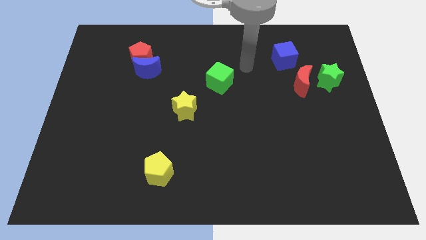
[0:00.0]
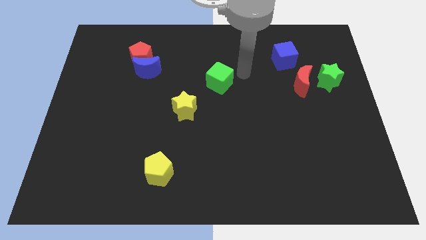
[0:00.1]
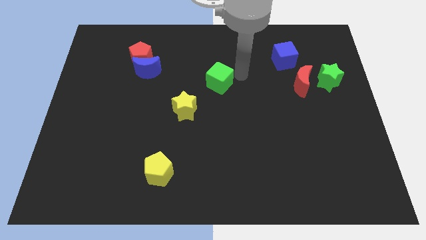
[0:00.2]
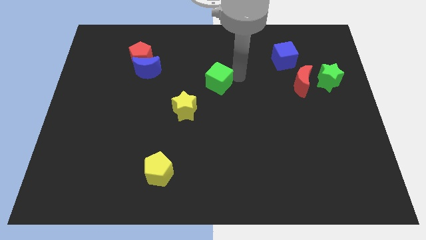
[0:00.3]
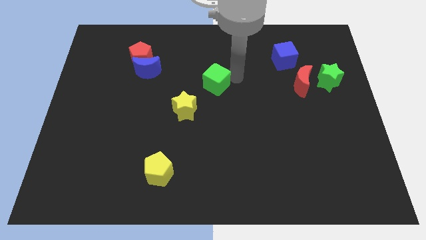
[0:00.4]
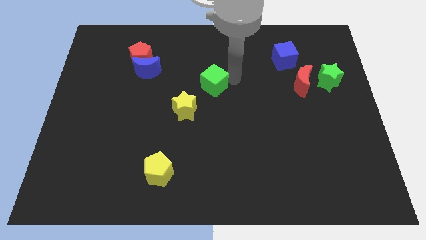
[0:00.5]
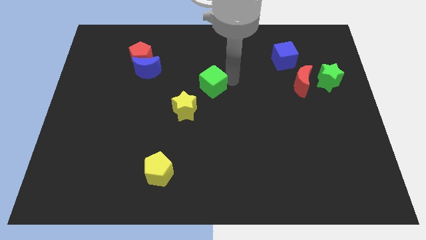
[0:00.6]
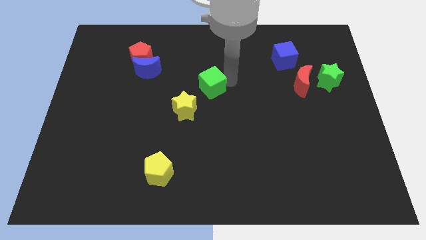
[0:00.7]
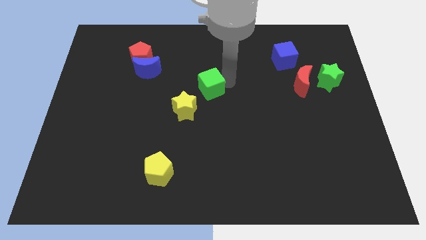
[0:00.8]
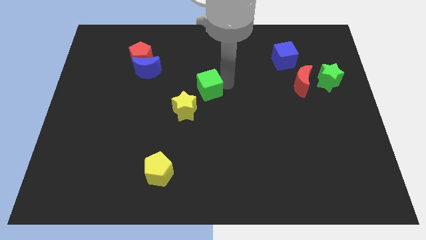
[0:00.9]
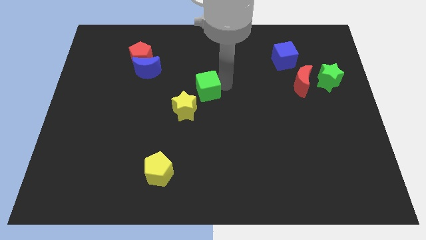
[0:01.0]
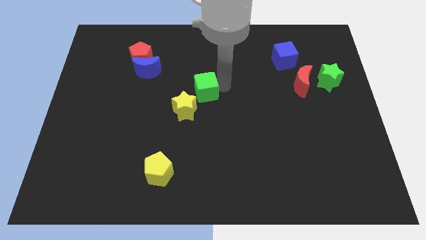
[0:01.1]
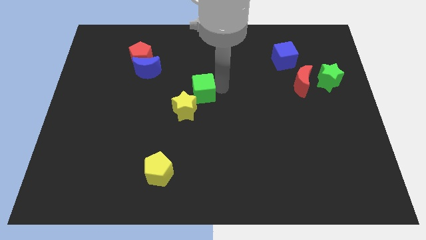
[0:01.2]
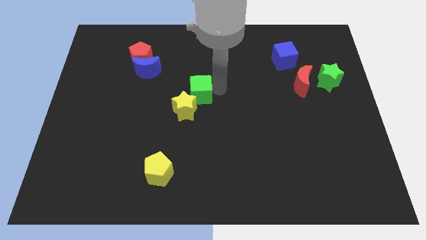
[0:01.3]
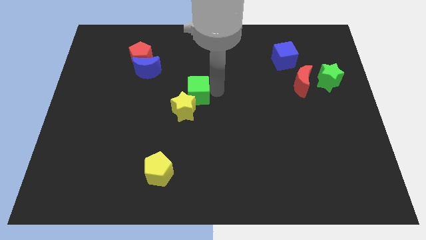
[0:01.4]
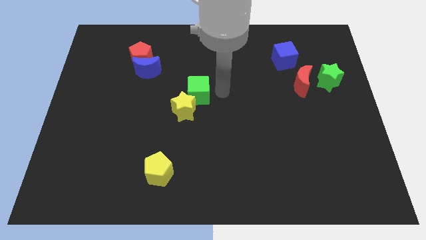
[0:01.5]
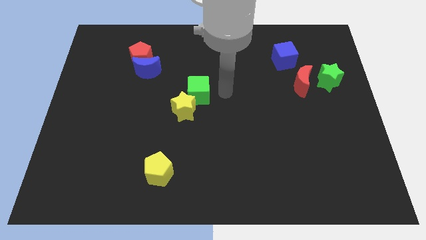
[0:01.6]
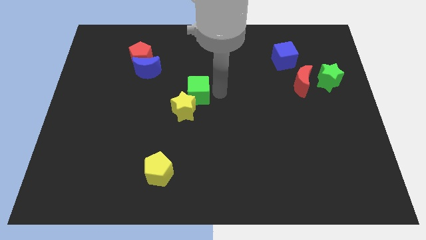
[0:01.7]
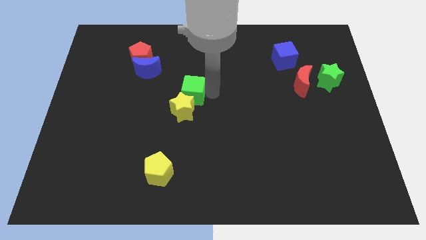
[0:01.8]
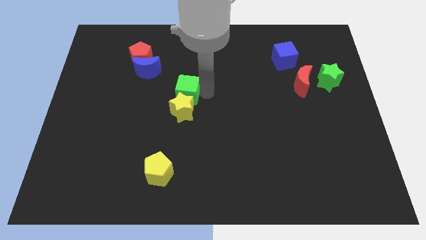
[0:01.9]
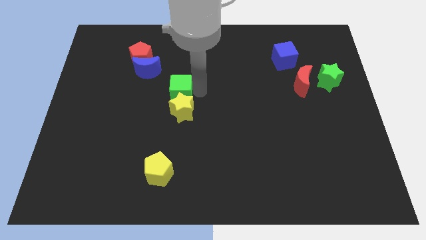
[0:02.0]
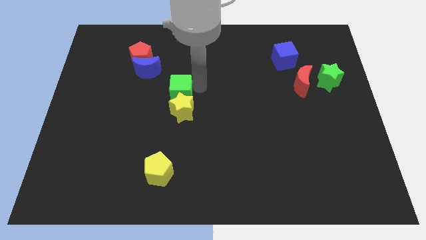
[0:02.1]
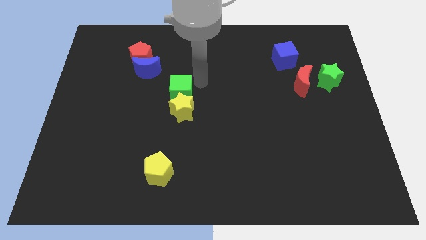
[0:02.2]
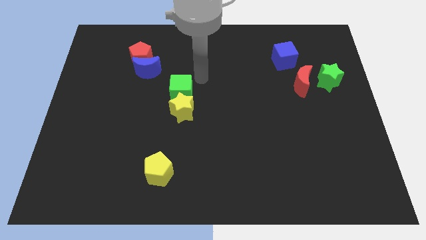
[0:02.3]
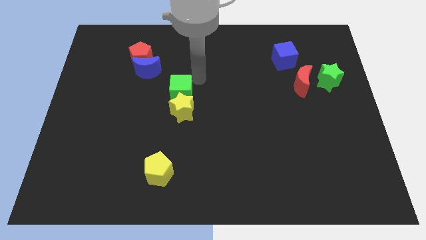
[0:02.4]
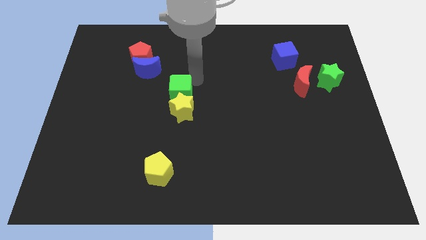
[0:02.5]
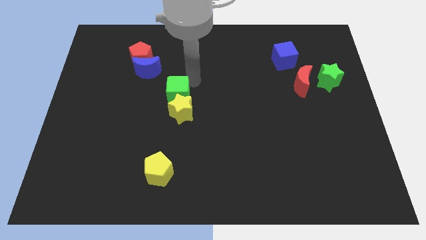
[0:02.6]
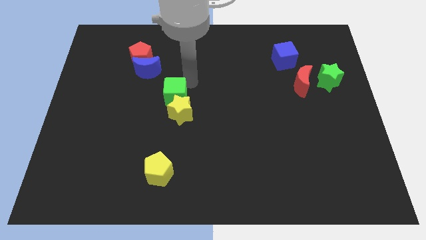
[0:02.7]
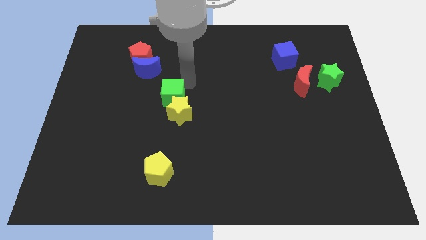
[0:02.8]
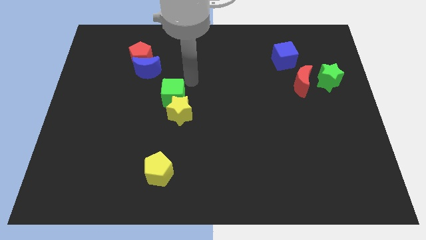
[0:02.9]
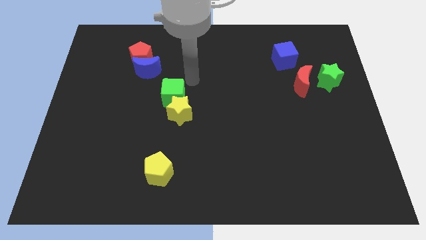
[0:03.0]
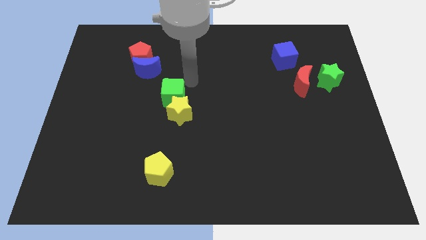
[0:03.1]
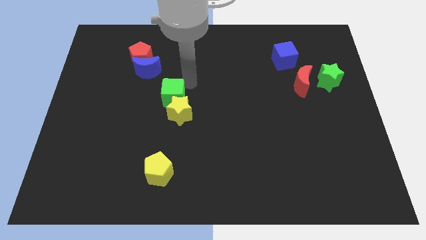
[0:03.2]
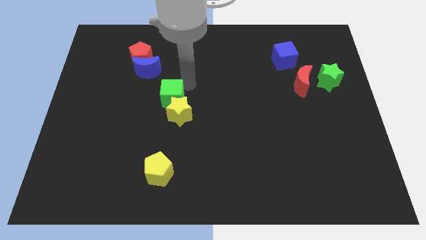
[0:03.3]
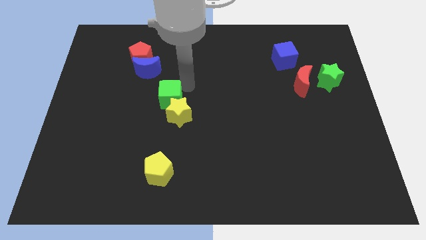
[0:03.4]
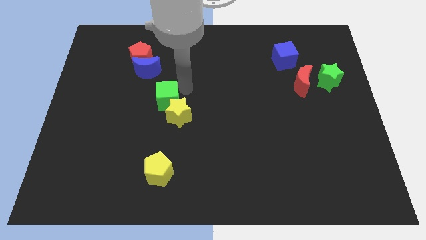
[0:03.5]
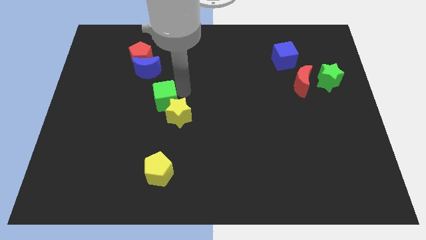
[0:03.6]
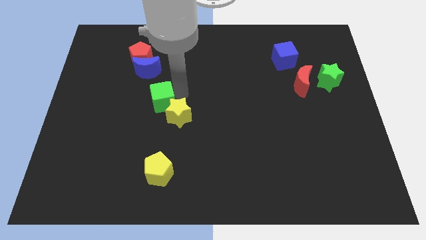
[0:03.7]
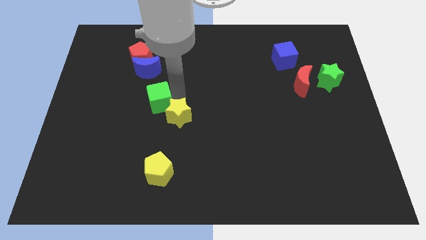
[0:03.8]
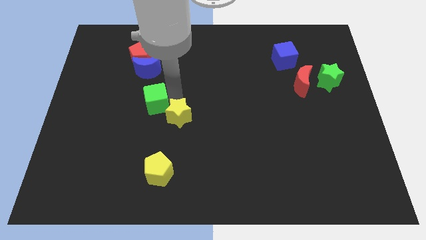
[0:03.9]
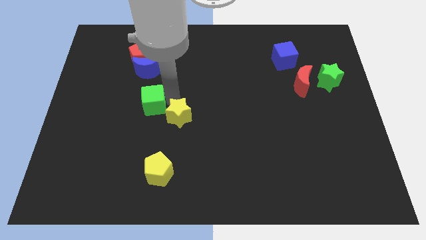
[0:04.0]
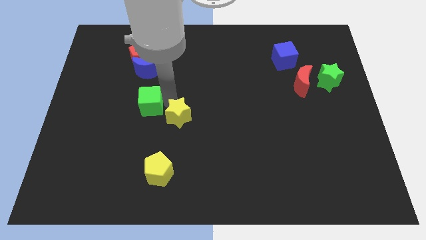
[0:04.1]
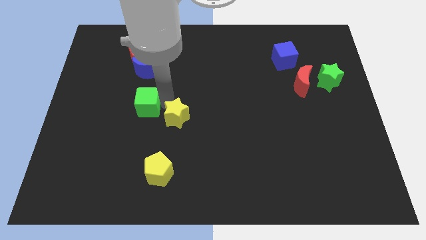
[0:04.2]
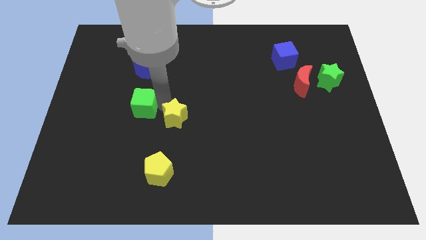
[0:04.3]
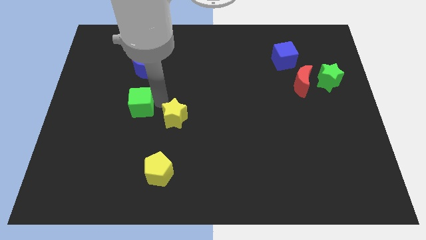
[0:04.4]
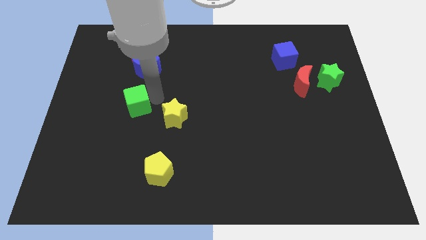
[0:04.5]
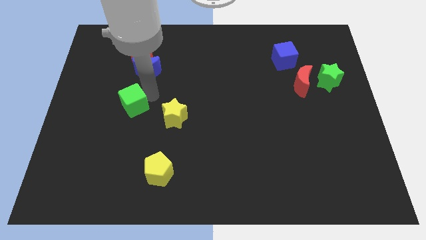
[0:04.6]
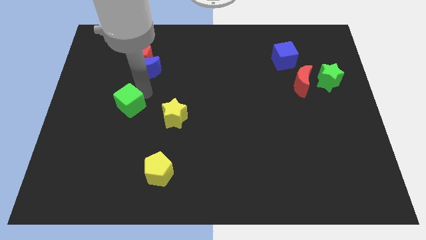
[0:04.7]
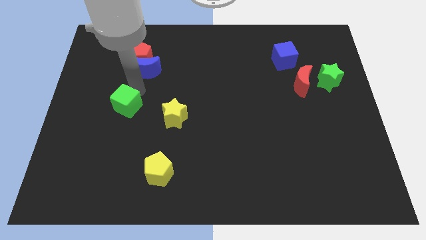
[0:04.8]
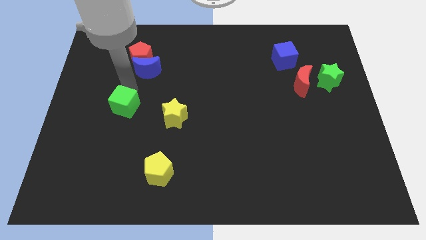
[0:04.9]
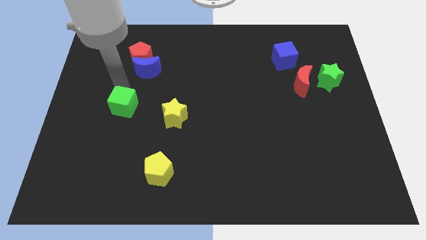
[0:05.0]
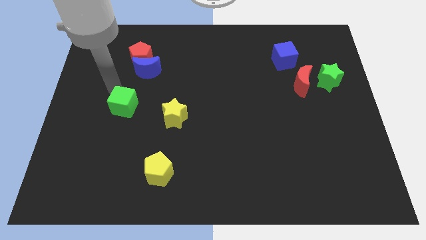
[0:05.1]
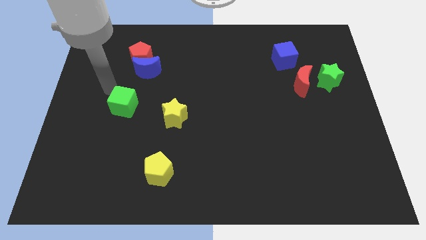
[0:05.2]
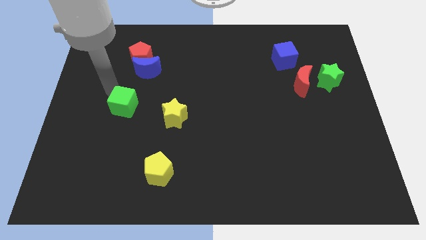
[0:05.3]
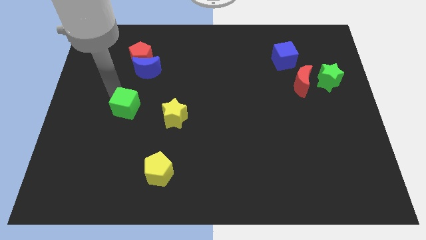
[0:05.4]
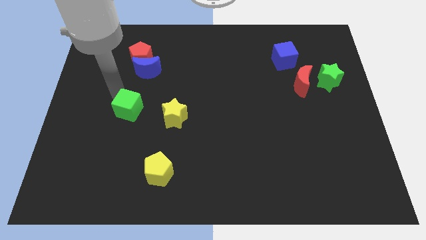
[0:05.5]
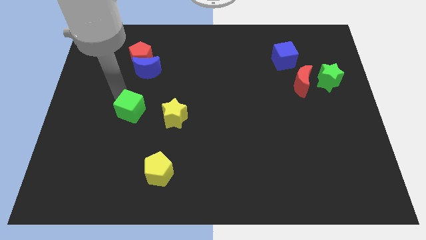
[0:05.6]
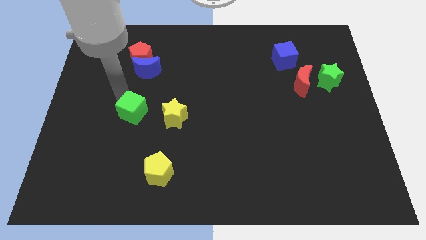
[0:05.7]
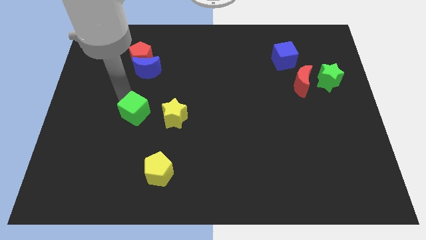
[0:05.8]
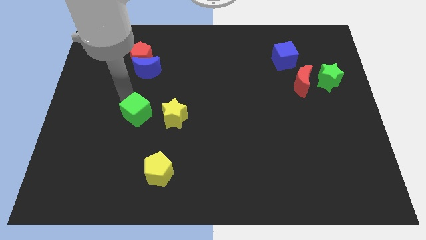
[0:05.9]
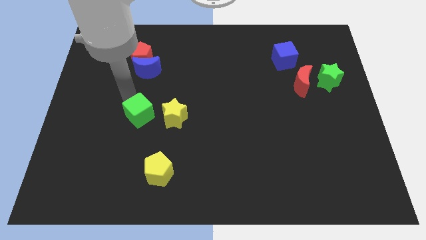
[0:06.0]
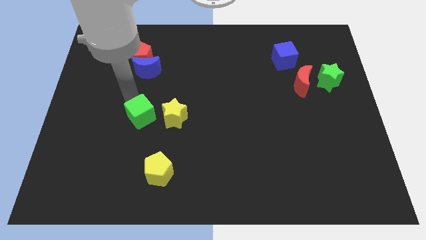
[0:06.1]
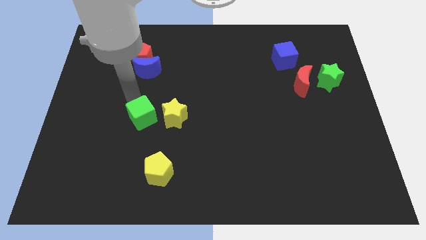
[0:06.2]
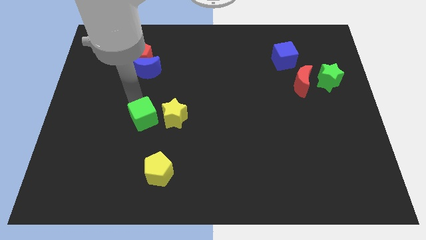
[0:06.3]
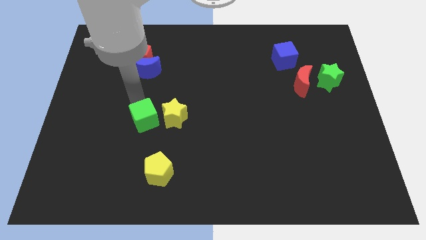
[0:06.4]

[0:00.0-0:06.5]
push the green cube down and to the left

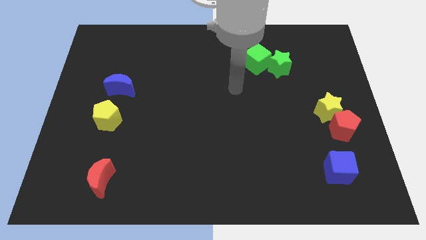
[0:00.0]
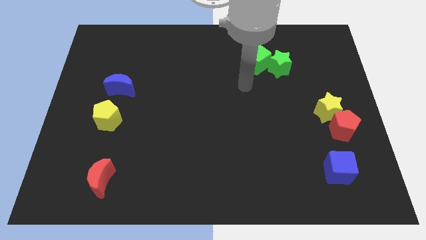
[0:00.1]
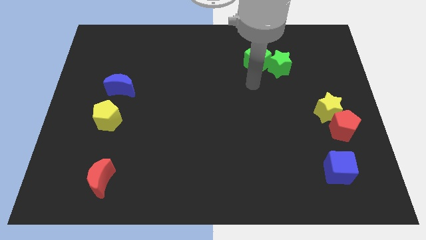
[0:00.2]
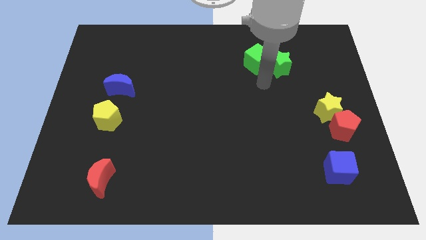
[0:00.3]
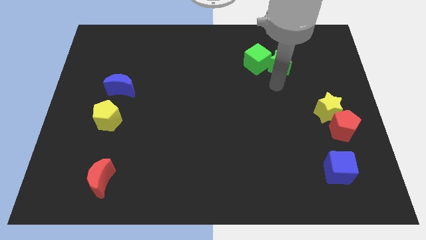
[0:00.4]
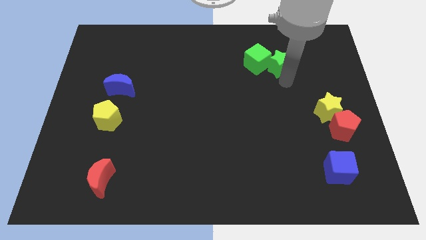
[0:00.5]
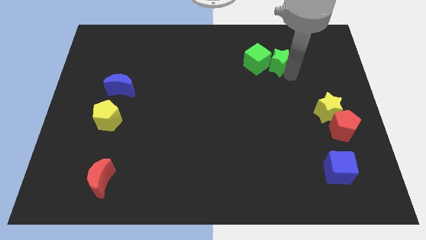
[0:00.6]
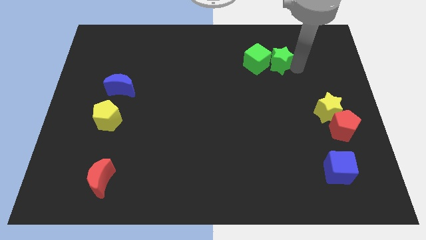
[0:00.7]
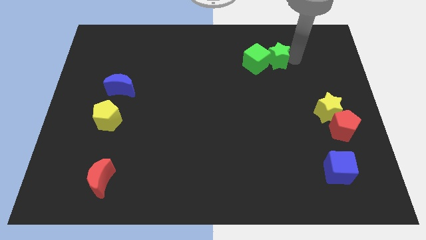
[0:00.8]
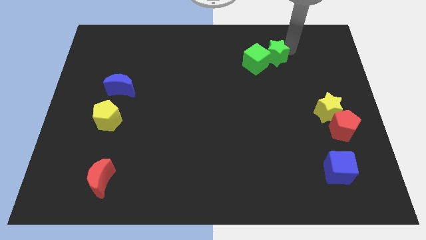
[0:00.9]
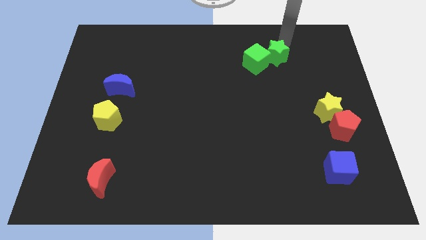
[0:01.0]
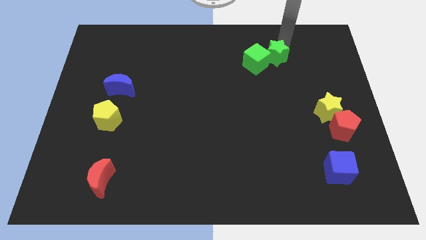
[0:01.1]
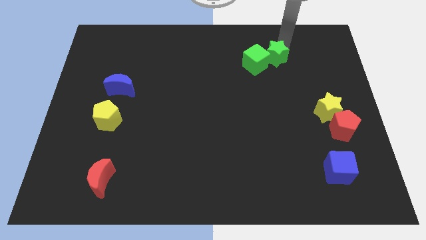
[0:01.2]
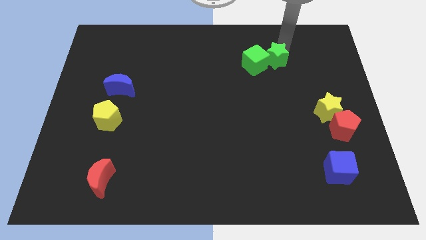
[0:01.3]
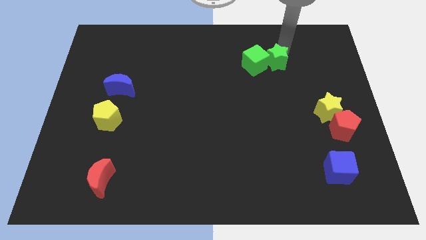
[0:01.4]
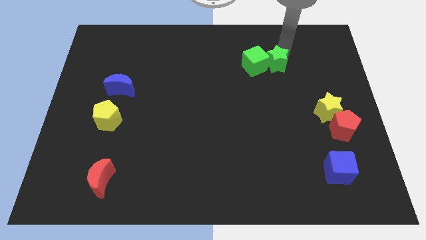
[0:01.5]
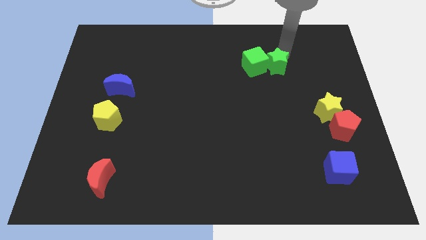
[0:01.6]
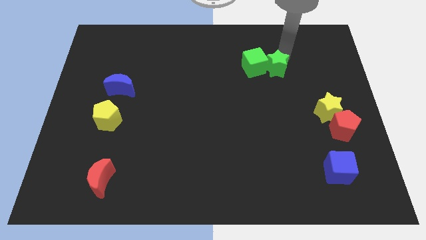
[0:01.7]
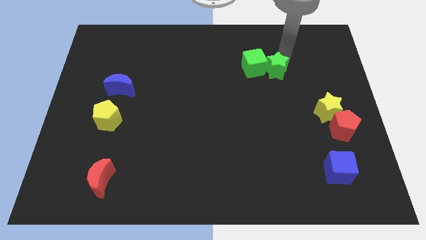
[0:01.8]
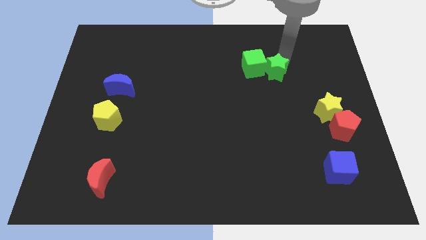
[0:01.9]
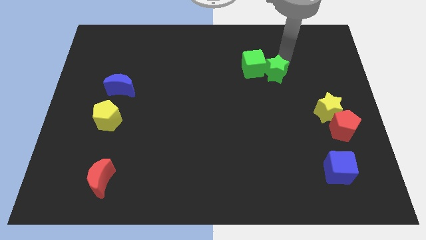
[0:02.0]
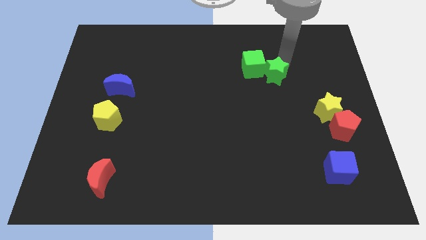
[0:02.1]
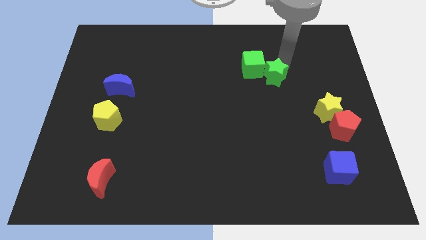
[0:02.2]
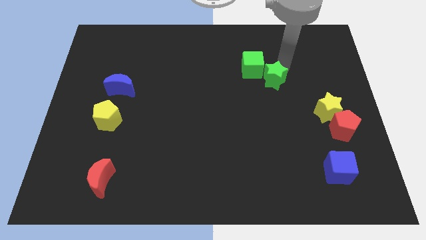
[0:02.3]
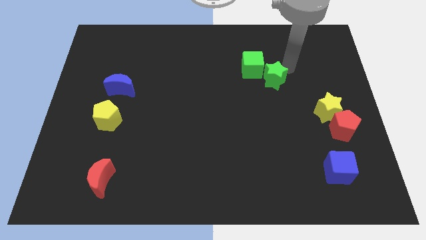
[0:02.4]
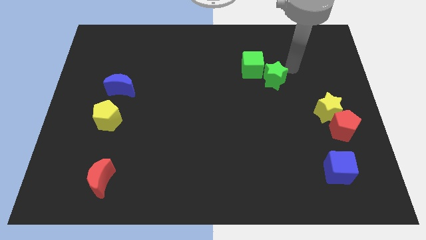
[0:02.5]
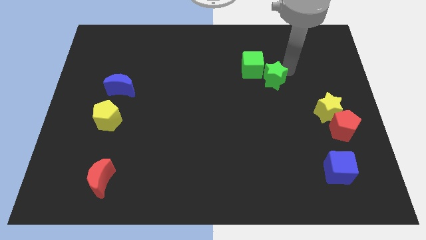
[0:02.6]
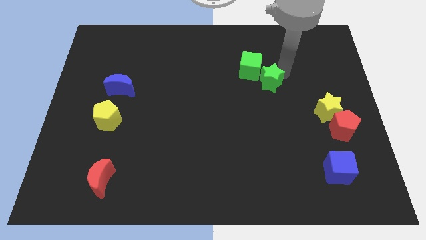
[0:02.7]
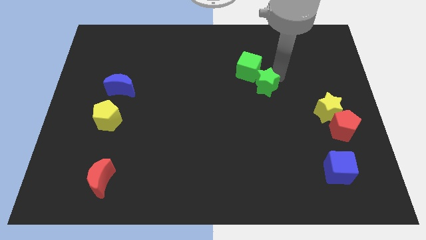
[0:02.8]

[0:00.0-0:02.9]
slightly move the green star downwards and left
